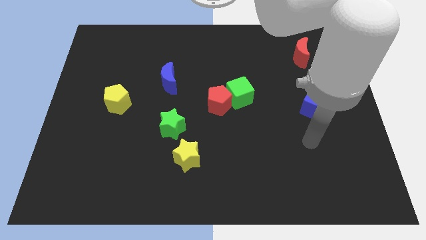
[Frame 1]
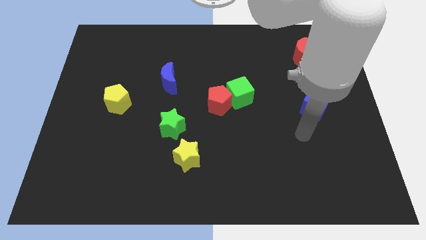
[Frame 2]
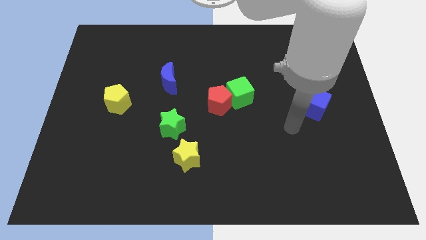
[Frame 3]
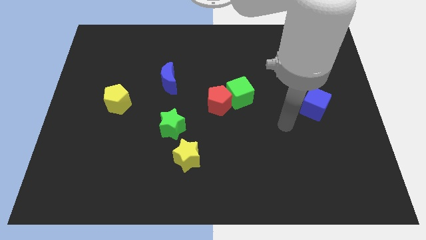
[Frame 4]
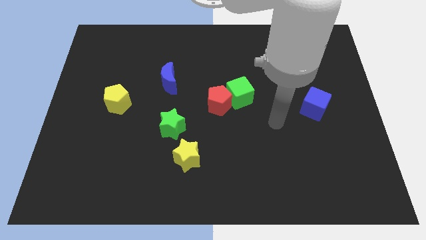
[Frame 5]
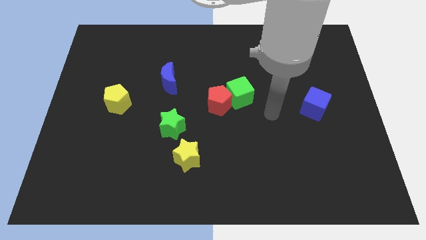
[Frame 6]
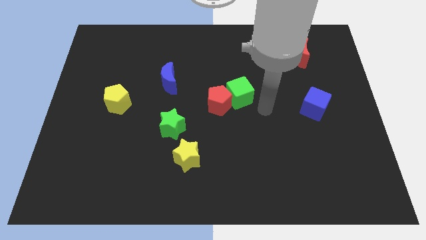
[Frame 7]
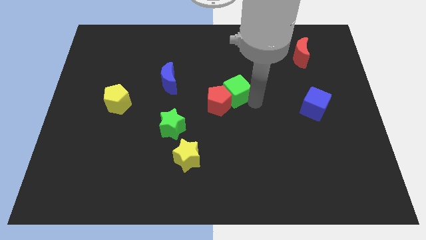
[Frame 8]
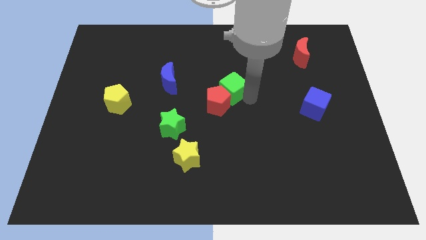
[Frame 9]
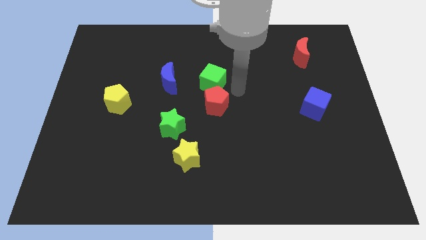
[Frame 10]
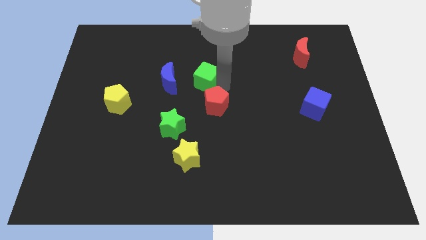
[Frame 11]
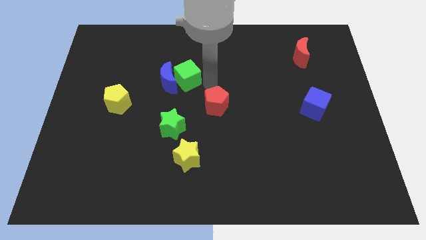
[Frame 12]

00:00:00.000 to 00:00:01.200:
move the red pentagon away from the green cube

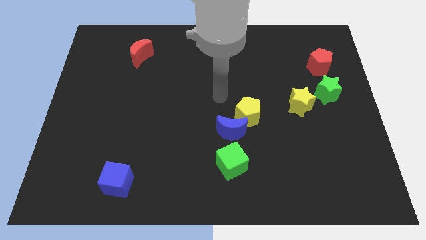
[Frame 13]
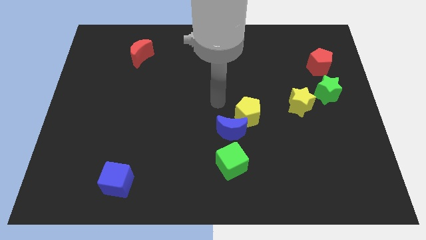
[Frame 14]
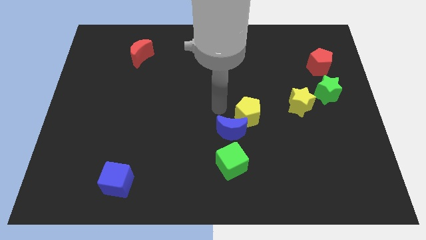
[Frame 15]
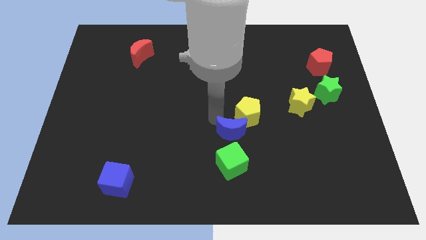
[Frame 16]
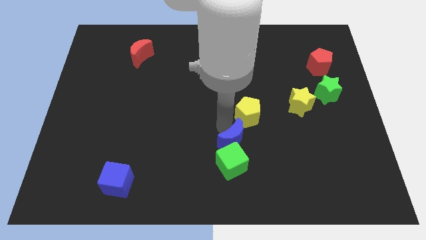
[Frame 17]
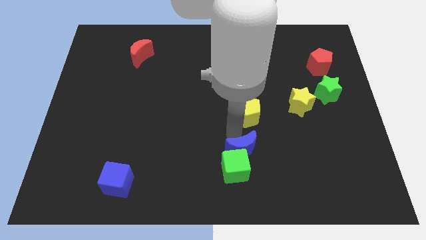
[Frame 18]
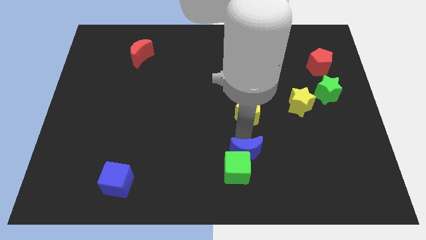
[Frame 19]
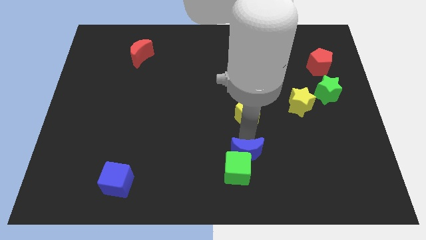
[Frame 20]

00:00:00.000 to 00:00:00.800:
move the yellow pentagon away from the blue moon

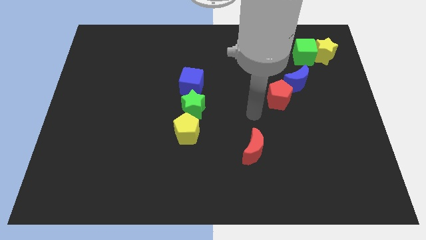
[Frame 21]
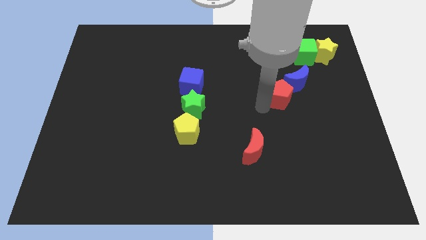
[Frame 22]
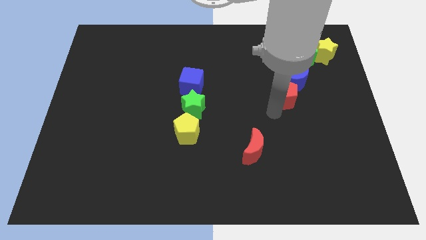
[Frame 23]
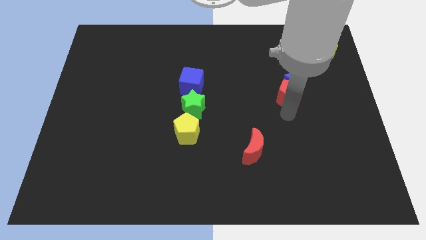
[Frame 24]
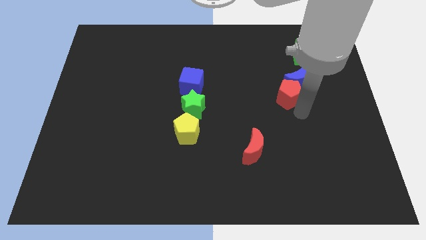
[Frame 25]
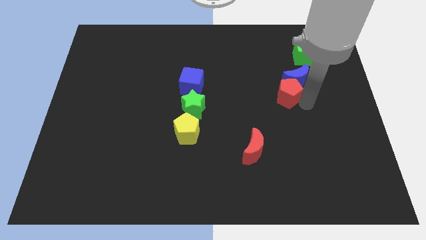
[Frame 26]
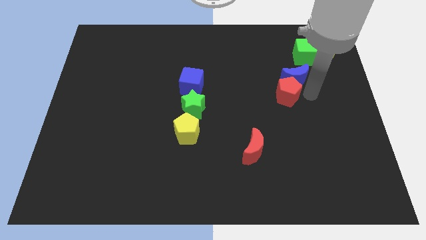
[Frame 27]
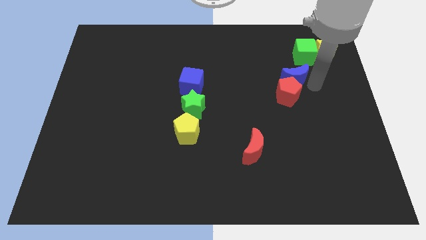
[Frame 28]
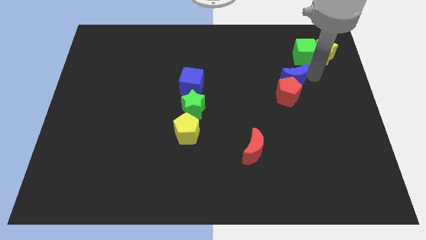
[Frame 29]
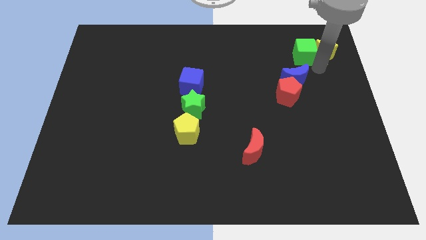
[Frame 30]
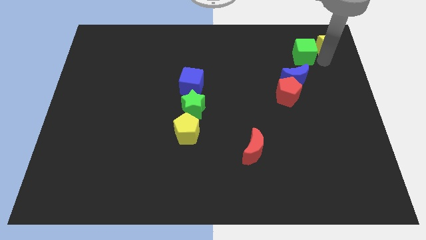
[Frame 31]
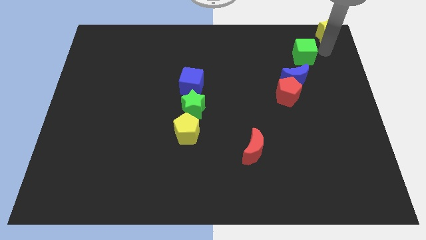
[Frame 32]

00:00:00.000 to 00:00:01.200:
separate the green cube from the yellow star

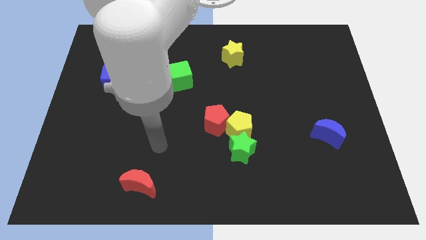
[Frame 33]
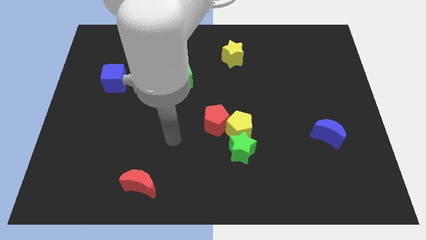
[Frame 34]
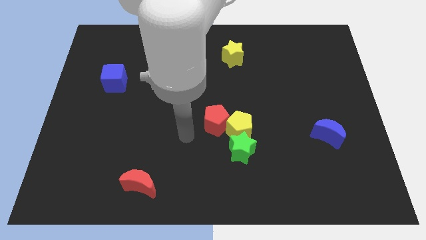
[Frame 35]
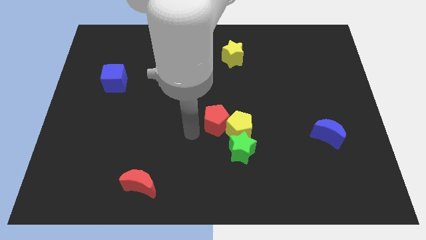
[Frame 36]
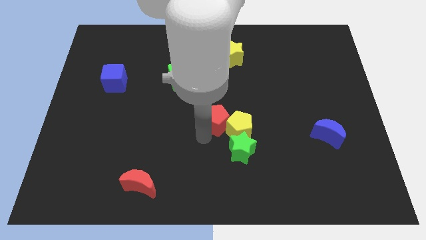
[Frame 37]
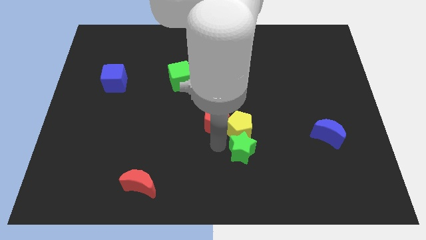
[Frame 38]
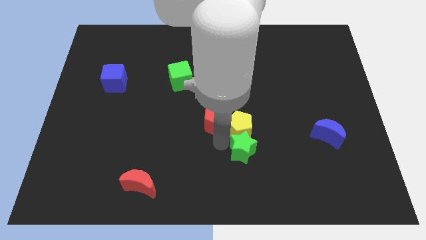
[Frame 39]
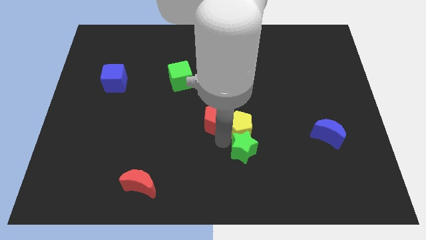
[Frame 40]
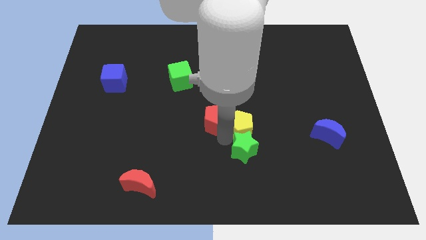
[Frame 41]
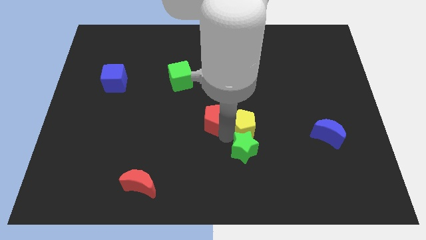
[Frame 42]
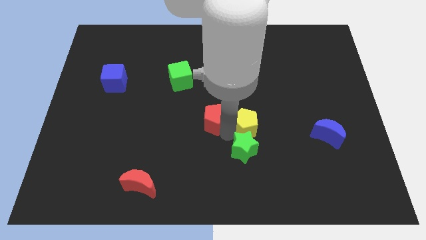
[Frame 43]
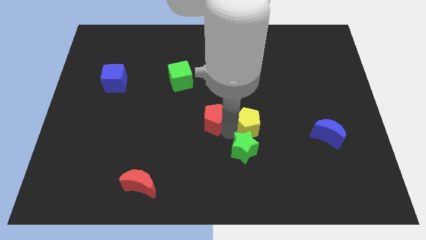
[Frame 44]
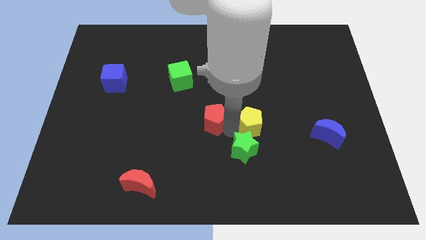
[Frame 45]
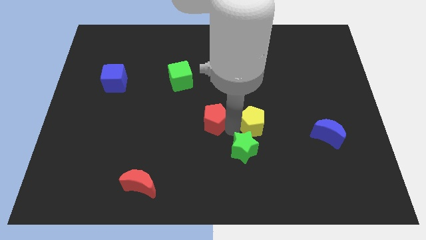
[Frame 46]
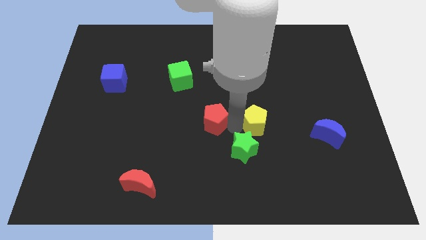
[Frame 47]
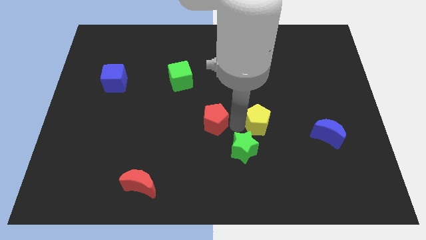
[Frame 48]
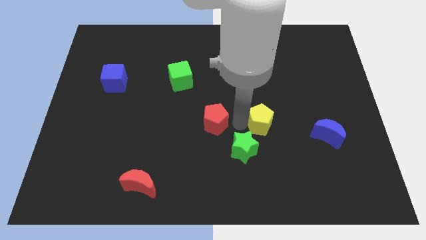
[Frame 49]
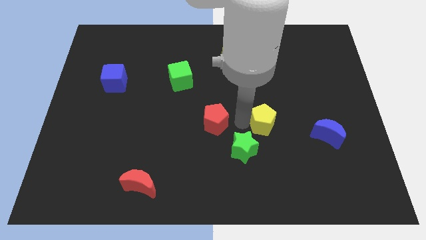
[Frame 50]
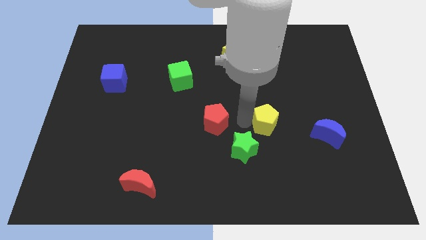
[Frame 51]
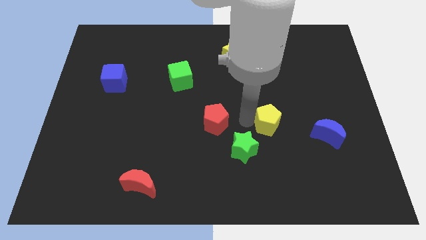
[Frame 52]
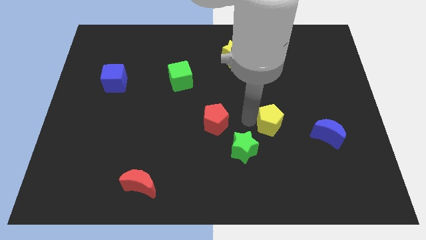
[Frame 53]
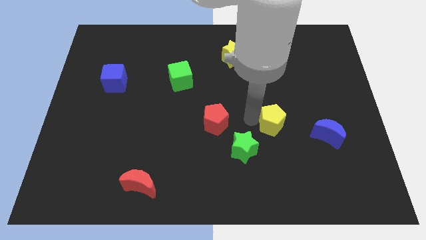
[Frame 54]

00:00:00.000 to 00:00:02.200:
separate the yellow pentagon from the green star and red pentagon

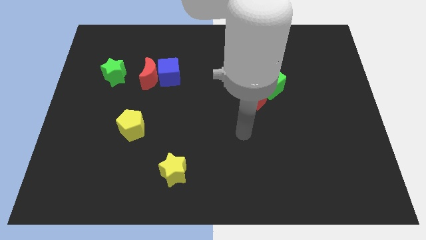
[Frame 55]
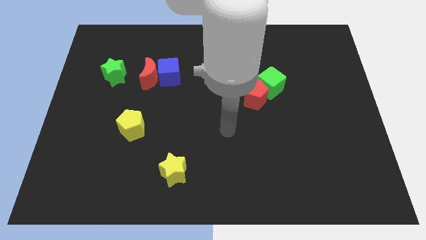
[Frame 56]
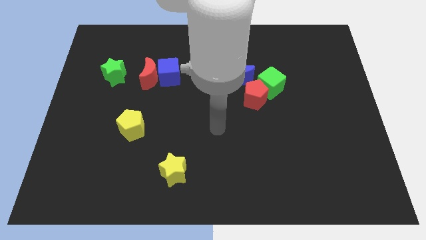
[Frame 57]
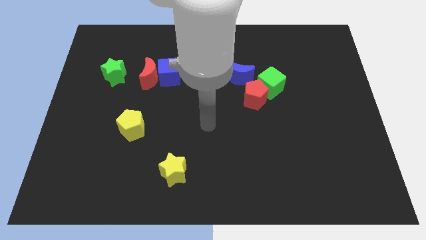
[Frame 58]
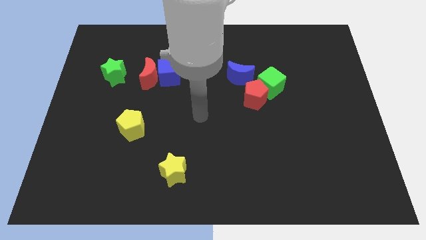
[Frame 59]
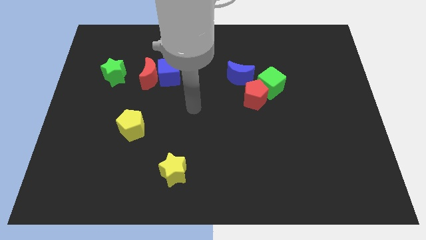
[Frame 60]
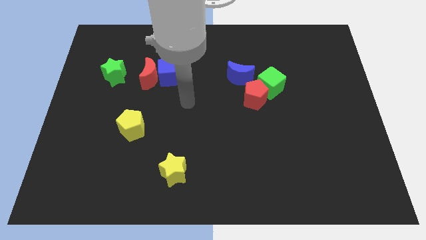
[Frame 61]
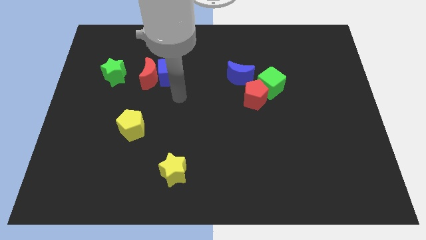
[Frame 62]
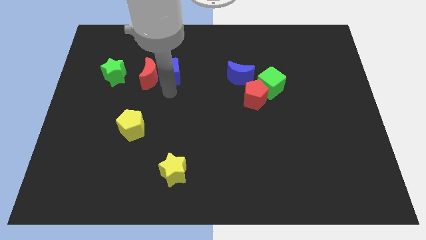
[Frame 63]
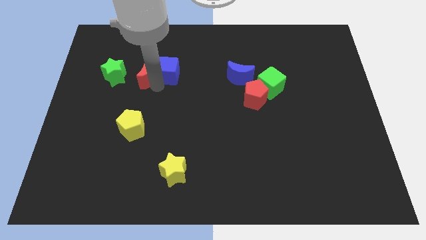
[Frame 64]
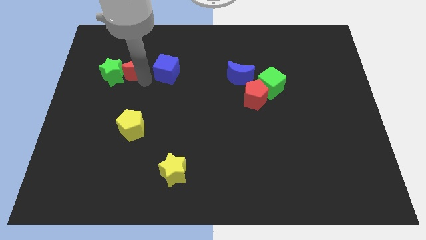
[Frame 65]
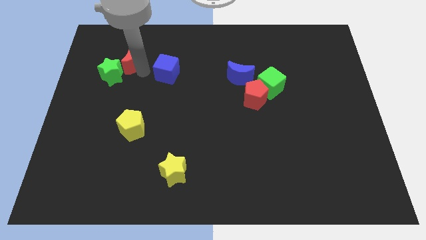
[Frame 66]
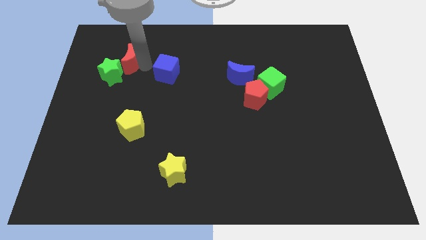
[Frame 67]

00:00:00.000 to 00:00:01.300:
move the blue cube away from the red moon

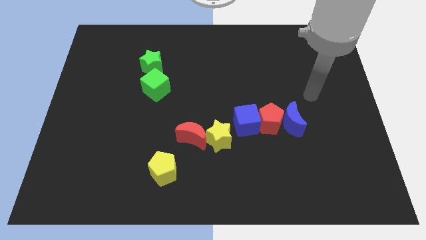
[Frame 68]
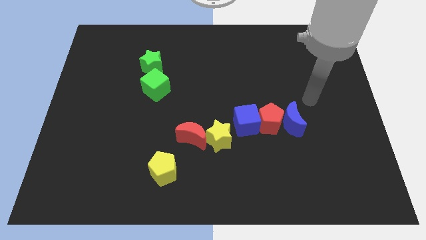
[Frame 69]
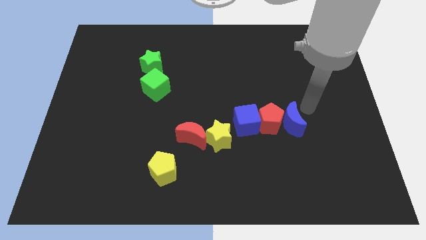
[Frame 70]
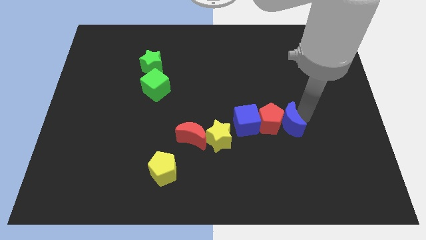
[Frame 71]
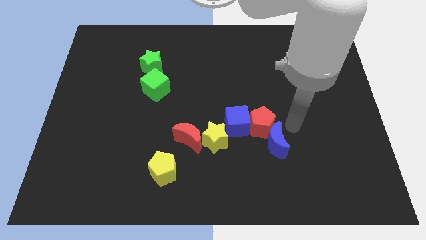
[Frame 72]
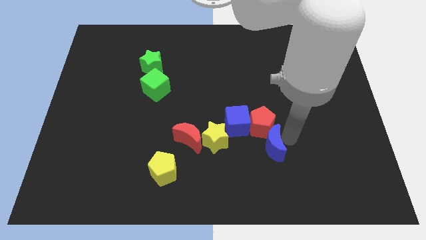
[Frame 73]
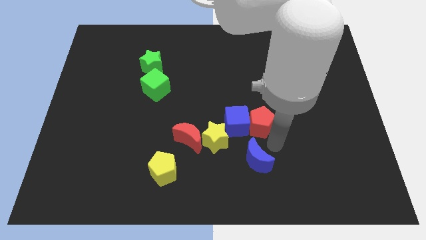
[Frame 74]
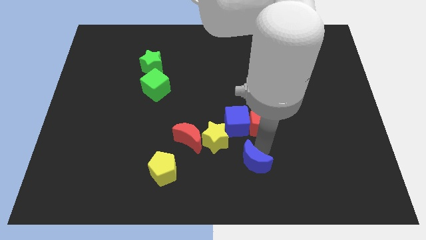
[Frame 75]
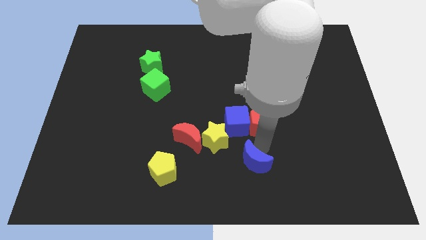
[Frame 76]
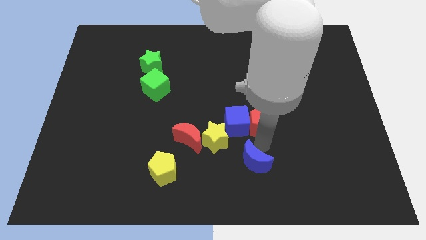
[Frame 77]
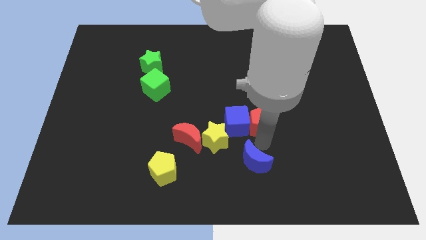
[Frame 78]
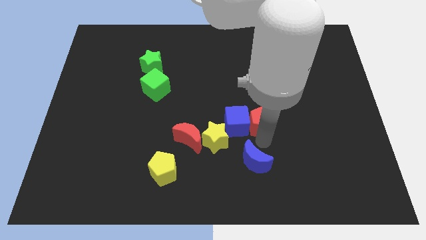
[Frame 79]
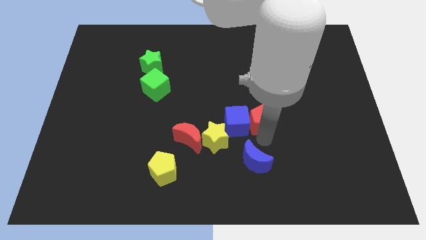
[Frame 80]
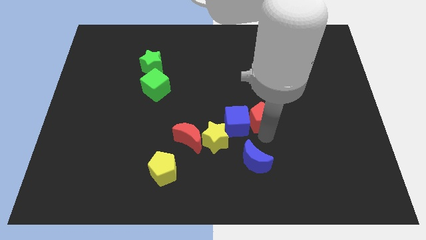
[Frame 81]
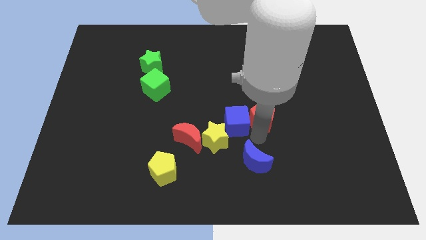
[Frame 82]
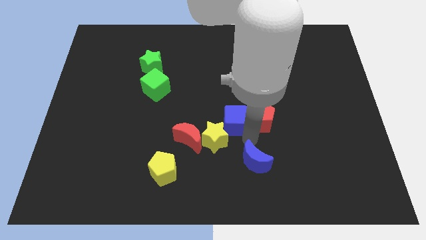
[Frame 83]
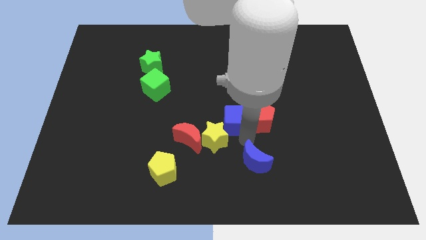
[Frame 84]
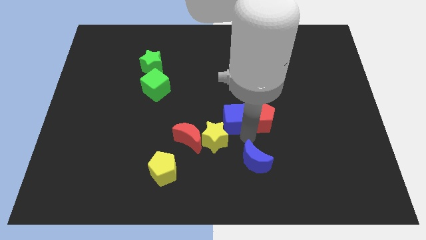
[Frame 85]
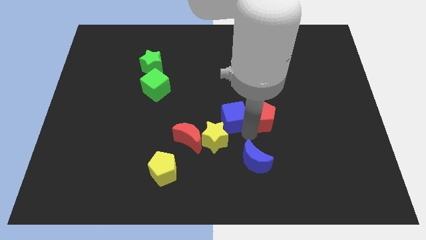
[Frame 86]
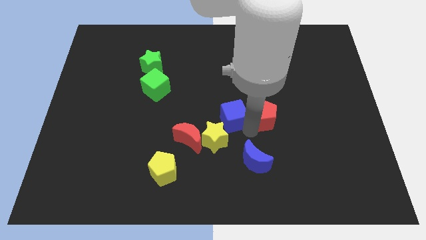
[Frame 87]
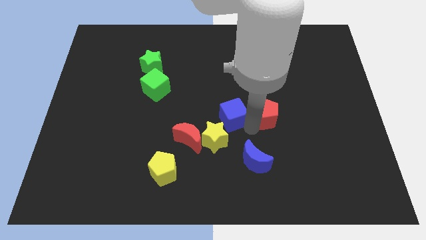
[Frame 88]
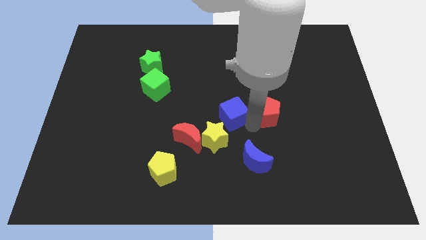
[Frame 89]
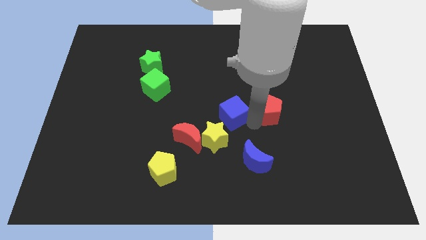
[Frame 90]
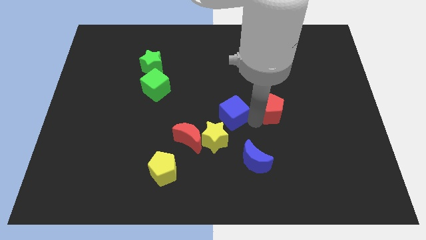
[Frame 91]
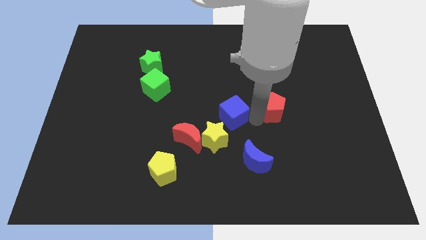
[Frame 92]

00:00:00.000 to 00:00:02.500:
pull the red pentagon apart from the blue moon and blue cube
